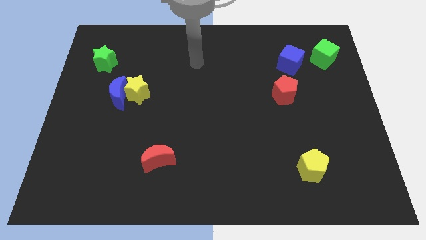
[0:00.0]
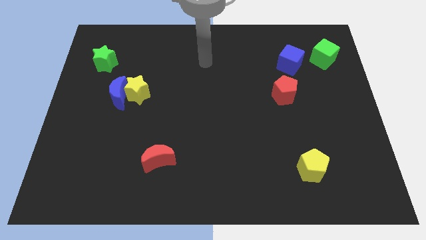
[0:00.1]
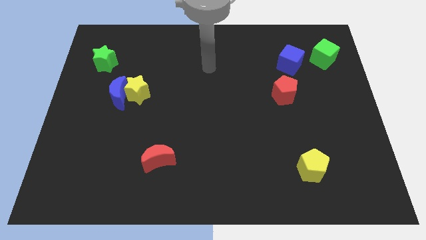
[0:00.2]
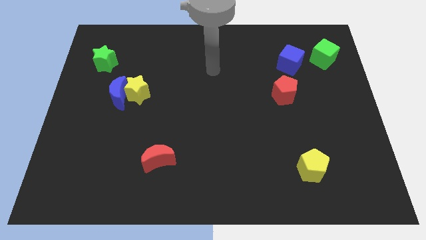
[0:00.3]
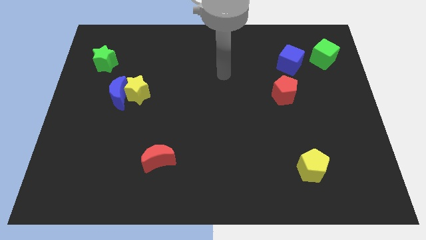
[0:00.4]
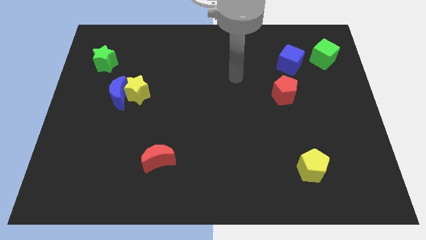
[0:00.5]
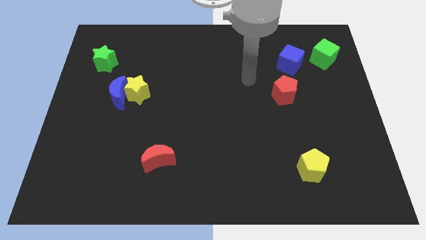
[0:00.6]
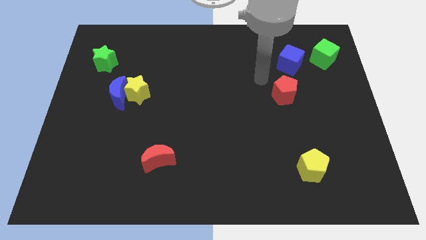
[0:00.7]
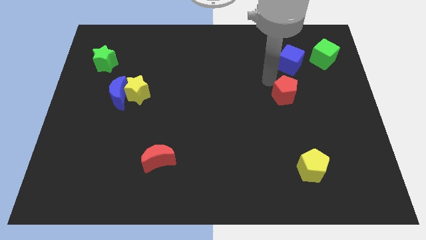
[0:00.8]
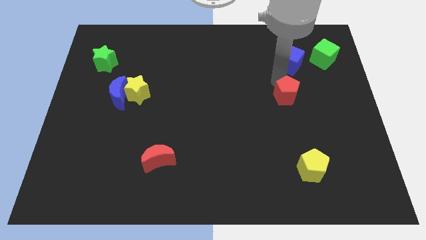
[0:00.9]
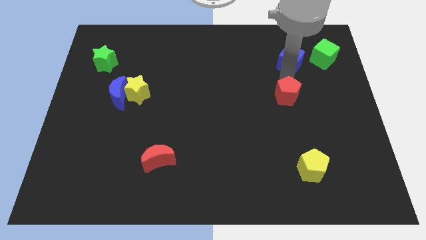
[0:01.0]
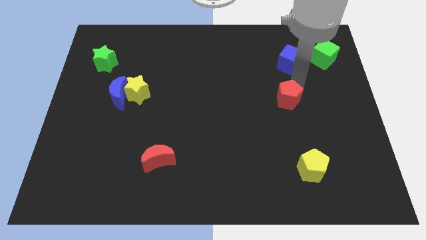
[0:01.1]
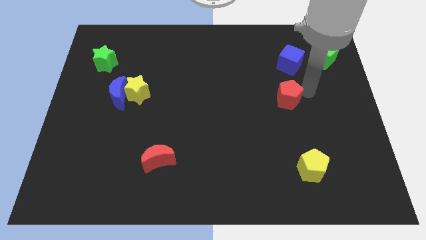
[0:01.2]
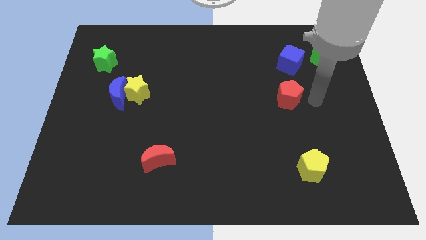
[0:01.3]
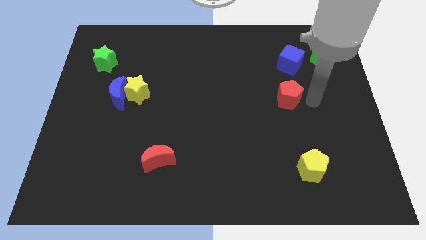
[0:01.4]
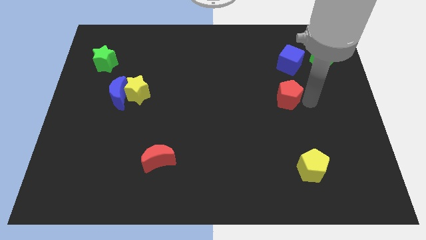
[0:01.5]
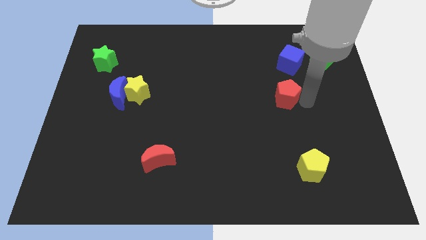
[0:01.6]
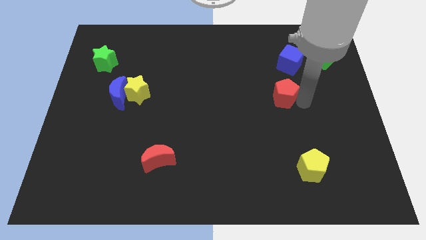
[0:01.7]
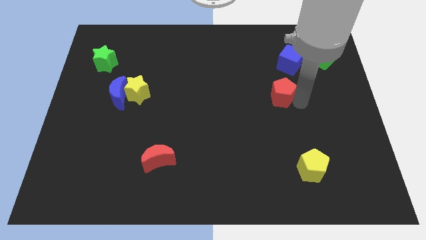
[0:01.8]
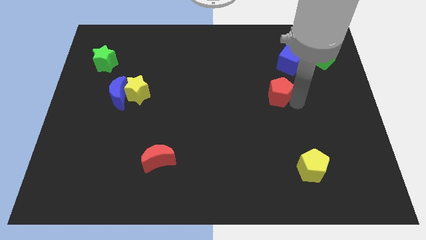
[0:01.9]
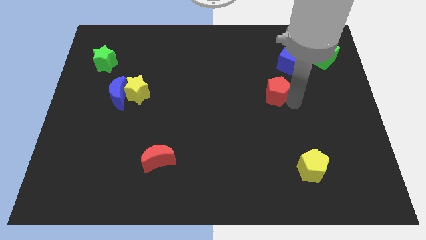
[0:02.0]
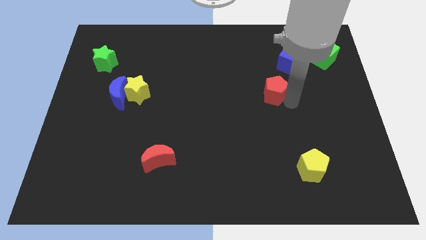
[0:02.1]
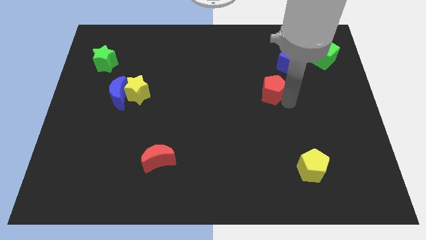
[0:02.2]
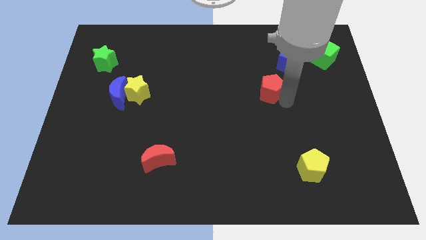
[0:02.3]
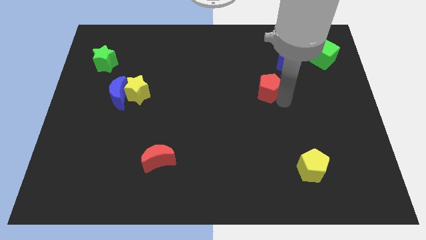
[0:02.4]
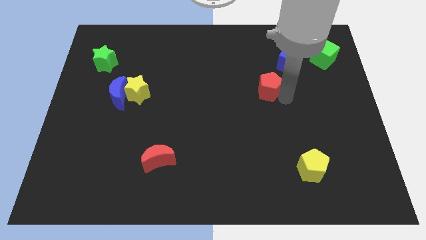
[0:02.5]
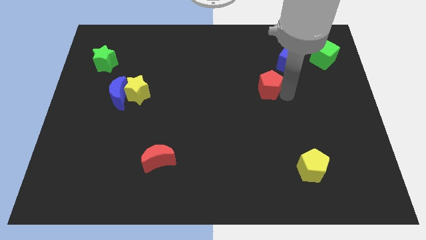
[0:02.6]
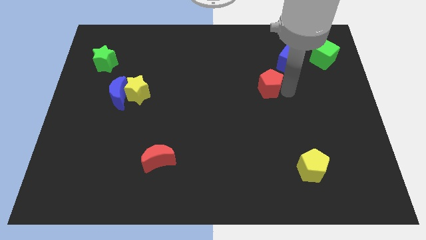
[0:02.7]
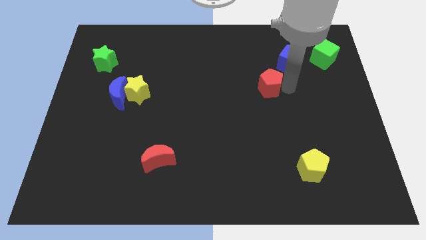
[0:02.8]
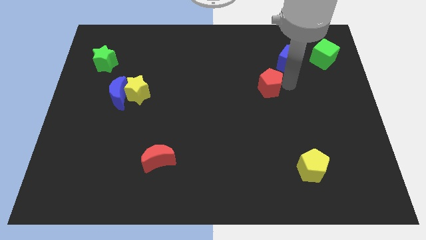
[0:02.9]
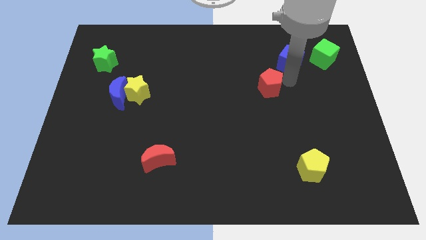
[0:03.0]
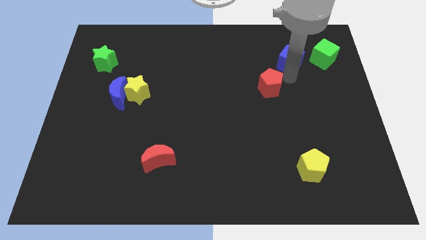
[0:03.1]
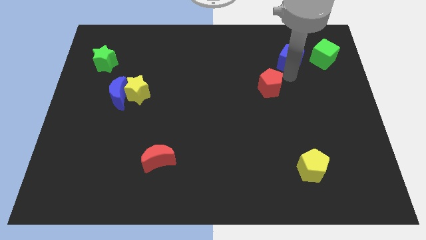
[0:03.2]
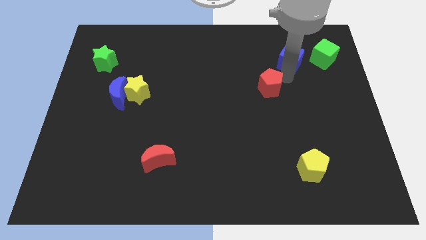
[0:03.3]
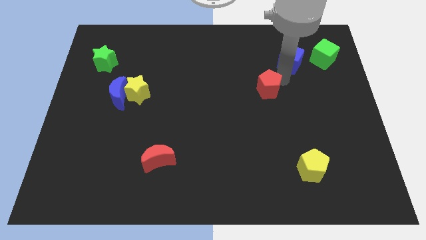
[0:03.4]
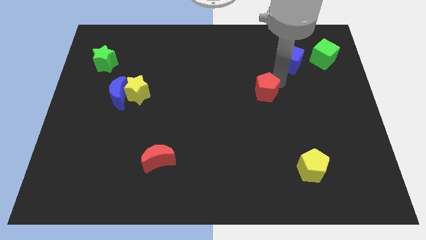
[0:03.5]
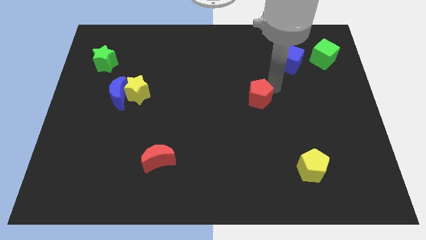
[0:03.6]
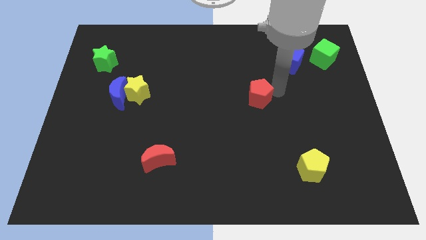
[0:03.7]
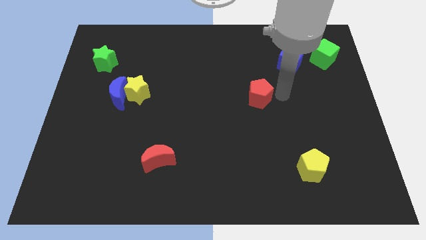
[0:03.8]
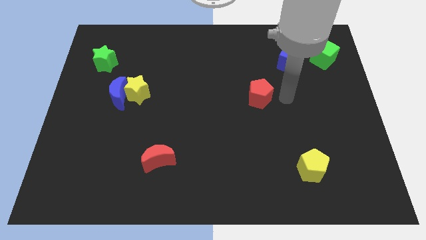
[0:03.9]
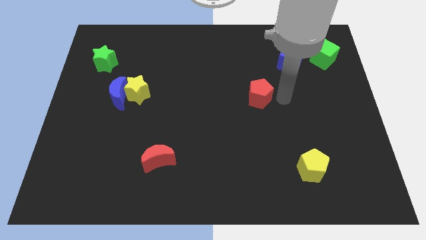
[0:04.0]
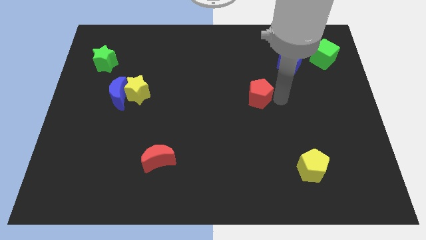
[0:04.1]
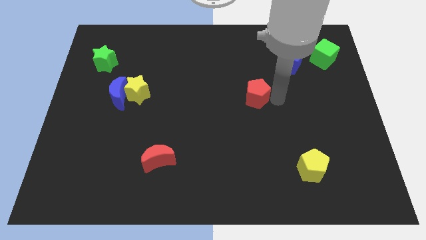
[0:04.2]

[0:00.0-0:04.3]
slightly slide the red pentagon to the left

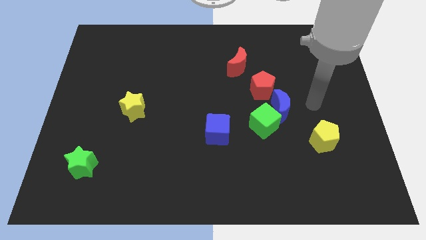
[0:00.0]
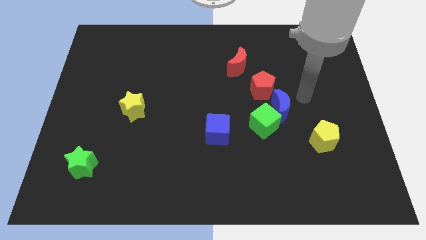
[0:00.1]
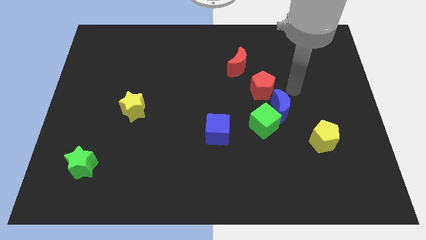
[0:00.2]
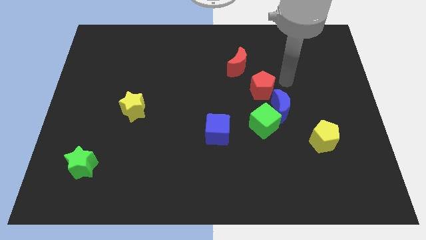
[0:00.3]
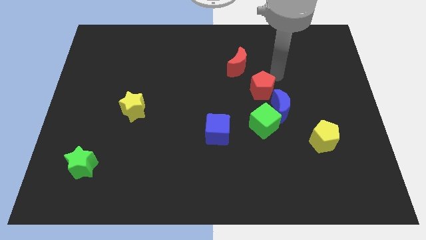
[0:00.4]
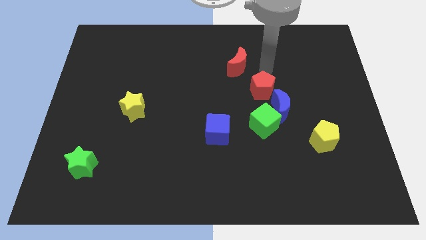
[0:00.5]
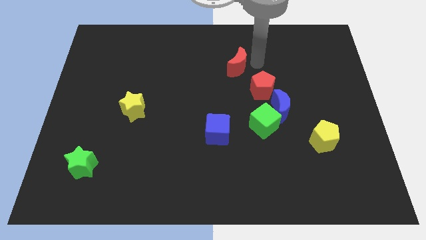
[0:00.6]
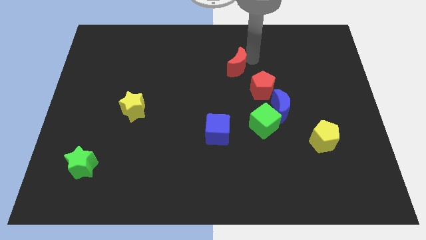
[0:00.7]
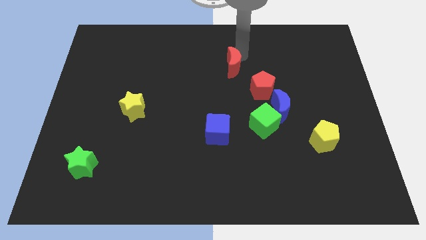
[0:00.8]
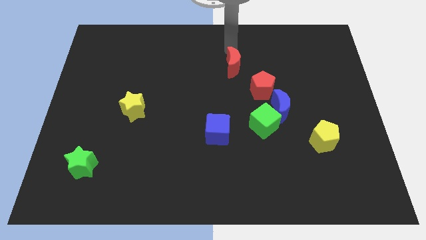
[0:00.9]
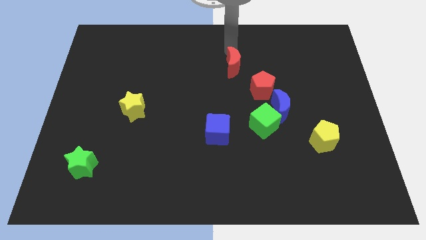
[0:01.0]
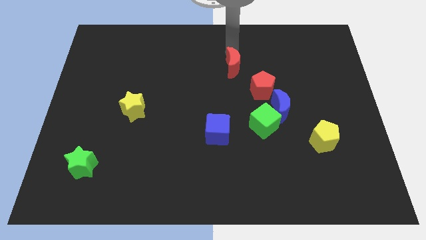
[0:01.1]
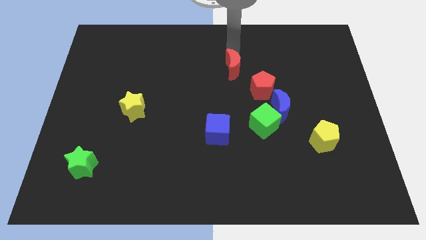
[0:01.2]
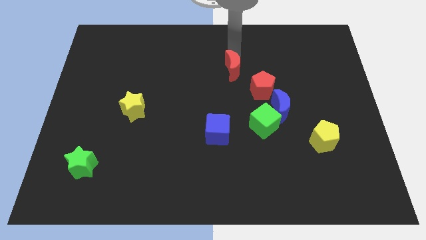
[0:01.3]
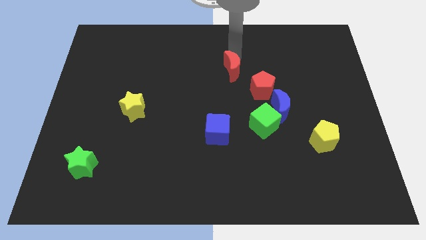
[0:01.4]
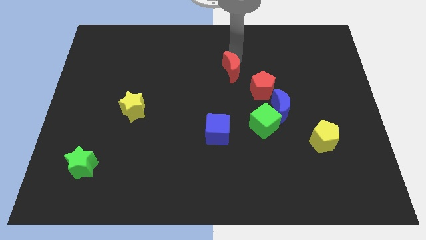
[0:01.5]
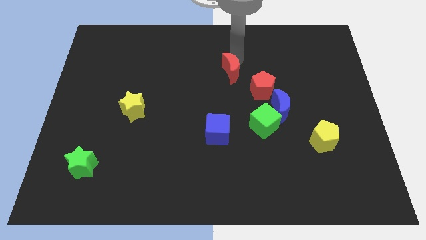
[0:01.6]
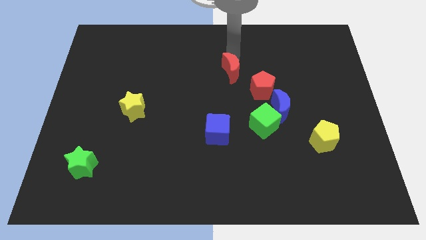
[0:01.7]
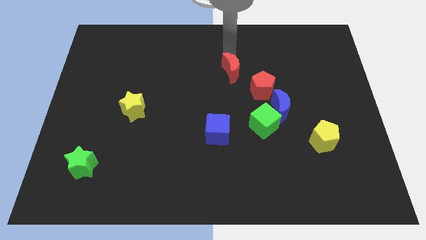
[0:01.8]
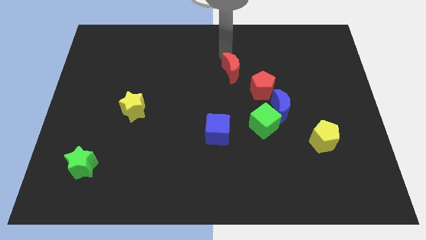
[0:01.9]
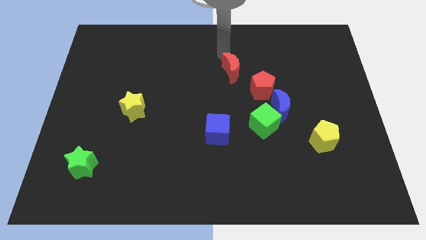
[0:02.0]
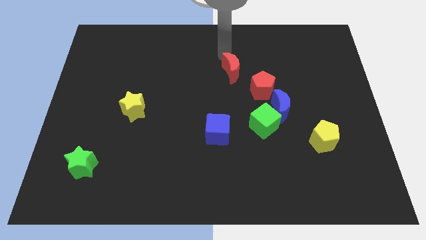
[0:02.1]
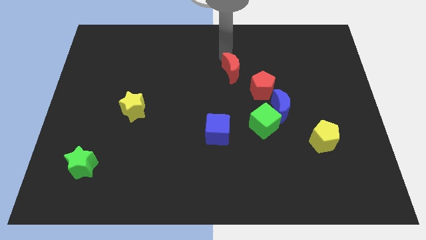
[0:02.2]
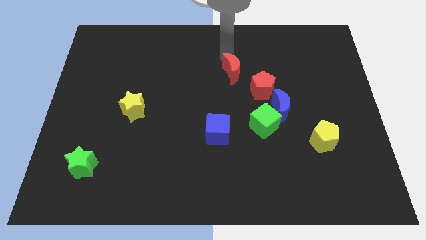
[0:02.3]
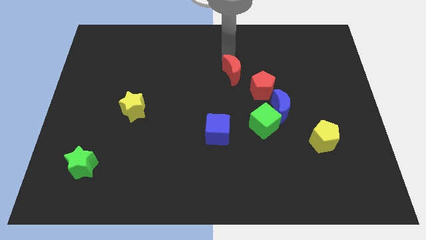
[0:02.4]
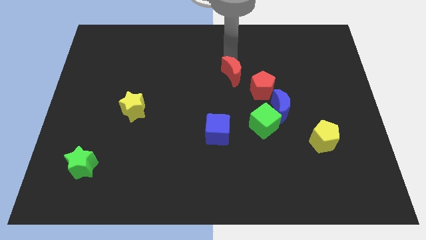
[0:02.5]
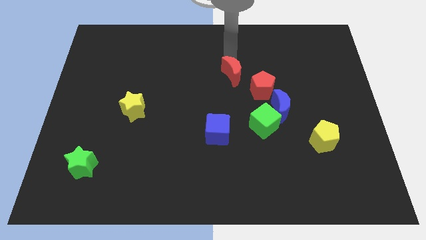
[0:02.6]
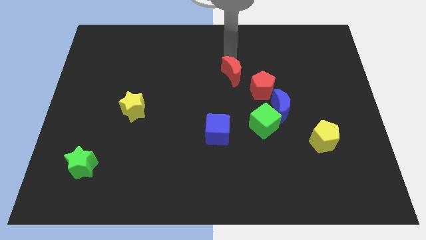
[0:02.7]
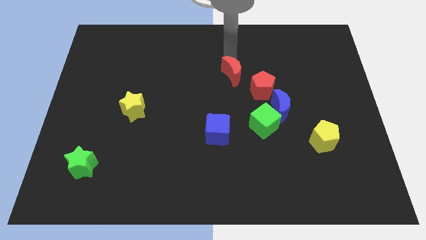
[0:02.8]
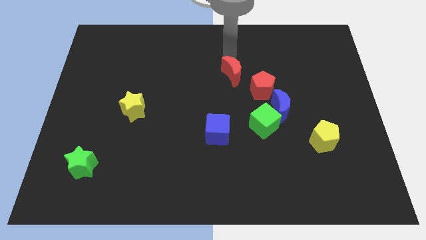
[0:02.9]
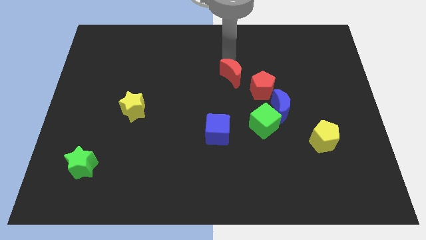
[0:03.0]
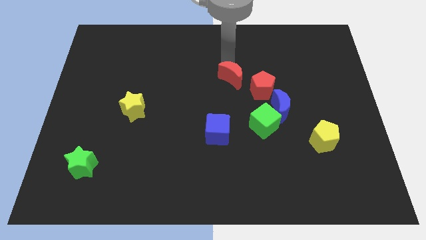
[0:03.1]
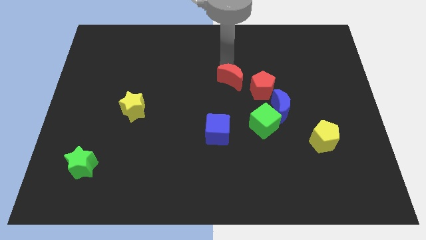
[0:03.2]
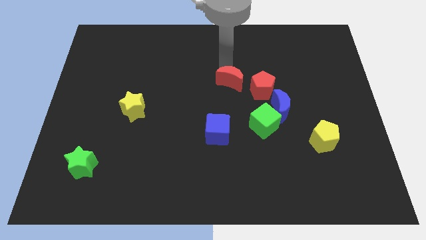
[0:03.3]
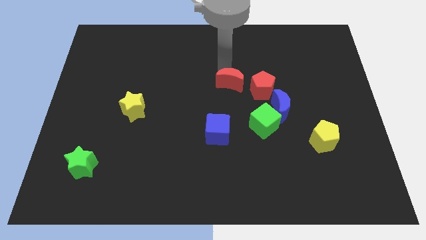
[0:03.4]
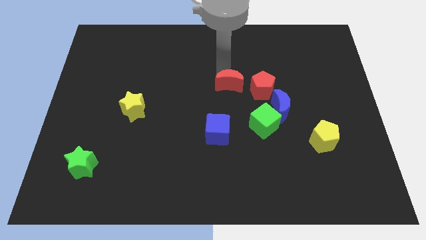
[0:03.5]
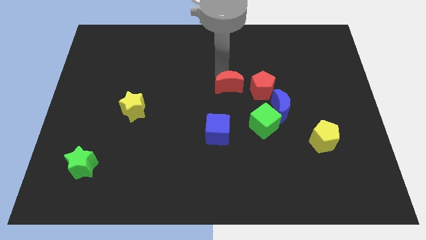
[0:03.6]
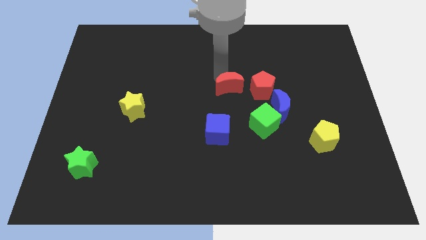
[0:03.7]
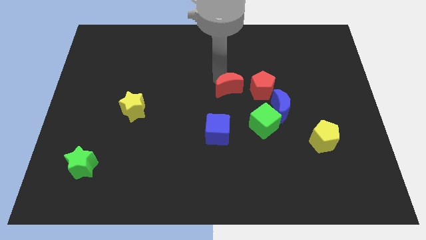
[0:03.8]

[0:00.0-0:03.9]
move the red moon slightly down
